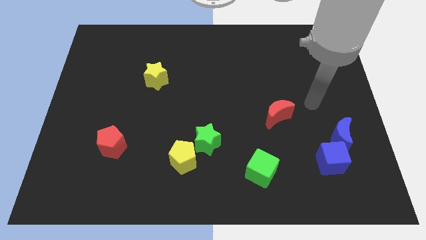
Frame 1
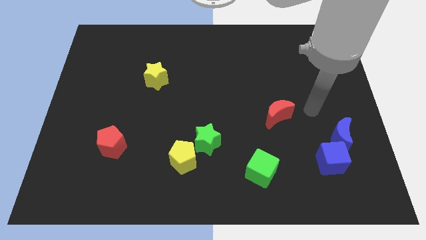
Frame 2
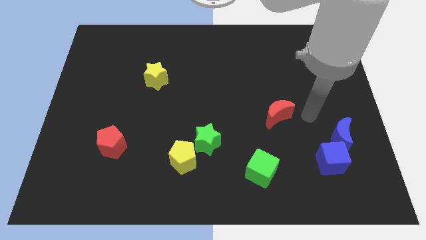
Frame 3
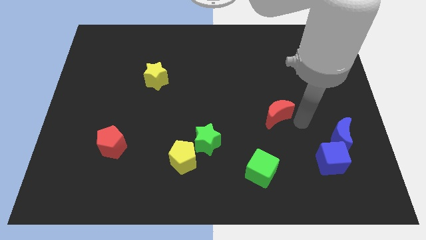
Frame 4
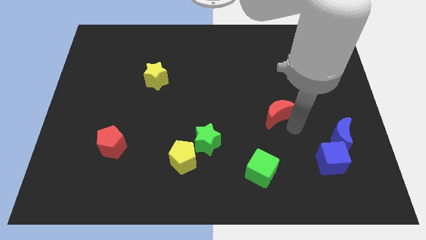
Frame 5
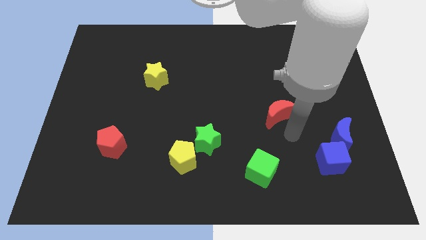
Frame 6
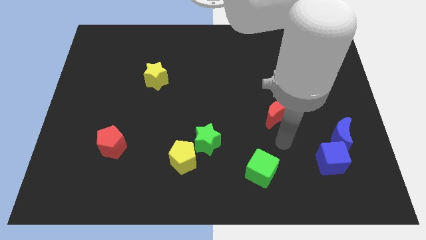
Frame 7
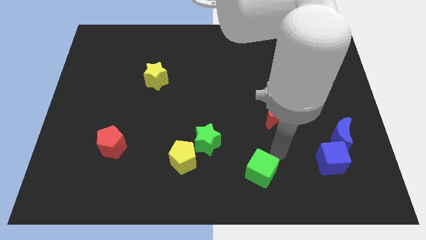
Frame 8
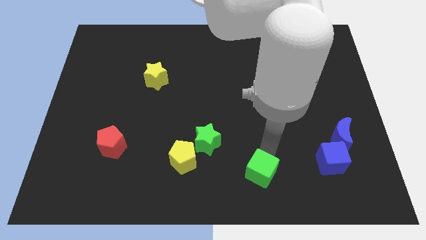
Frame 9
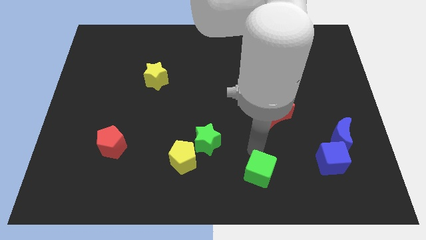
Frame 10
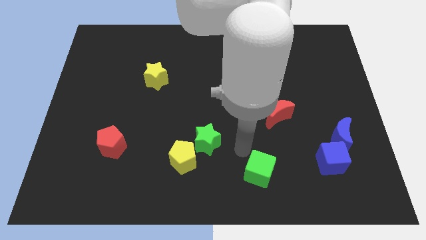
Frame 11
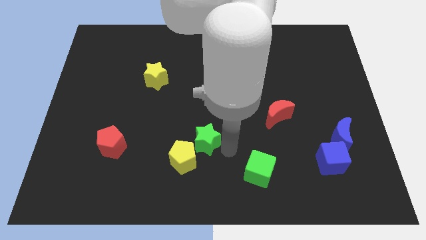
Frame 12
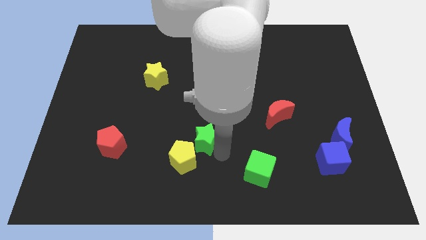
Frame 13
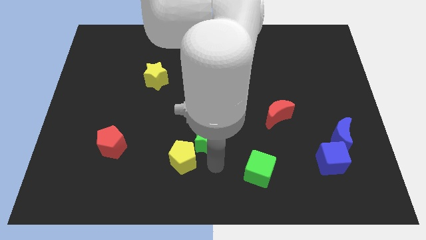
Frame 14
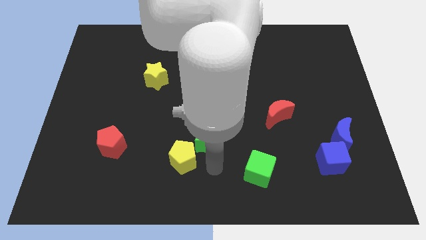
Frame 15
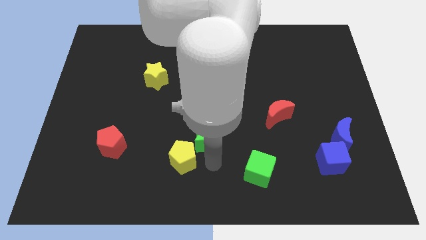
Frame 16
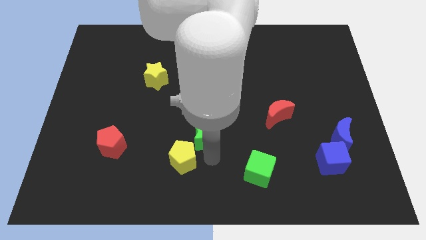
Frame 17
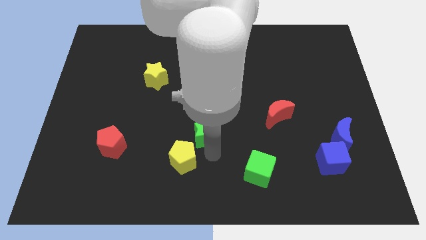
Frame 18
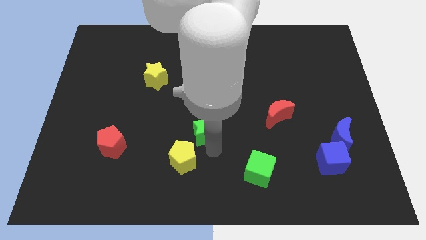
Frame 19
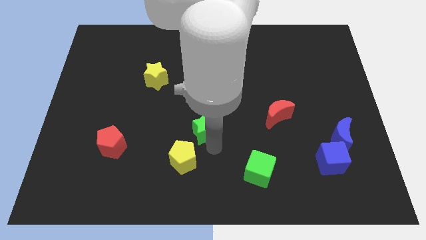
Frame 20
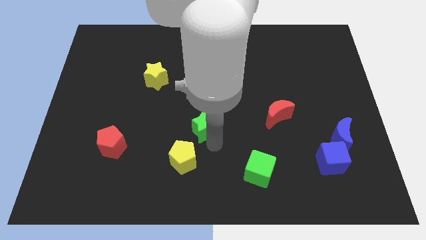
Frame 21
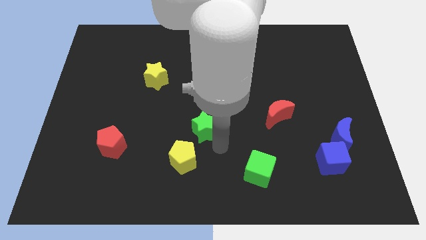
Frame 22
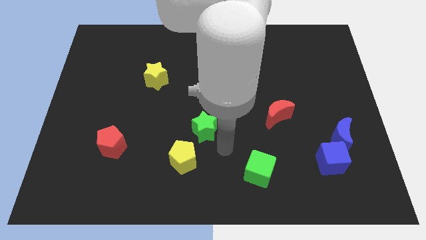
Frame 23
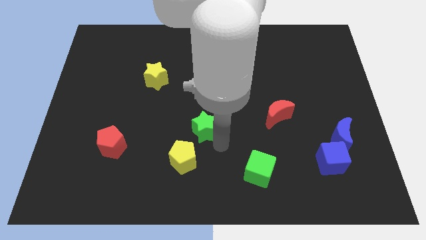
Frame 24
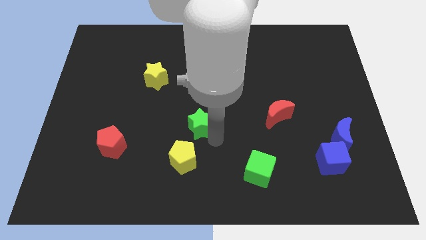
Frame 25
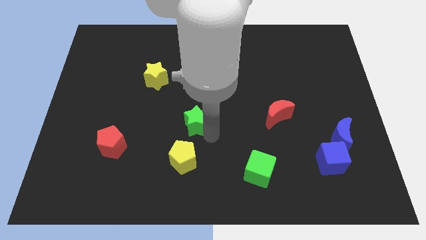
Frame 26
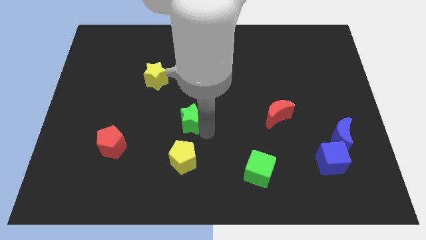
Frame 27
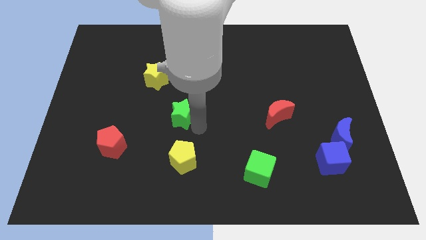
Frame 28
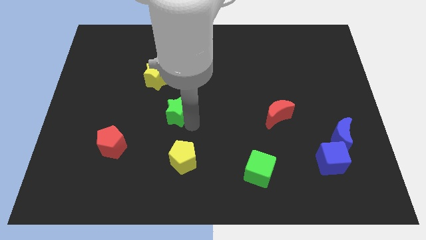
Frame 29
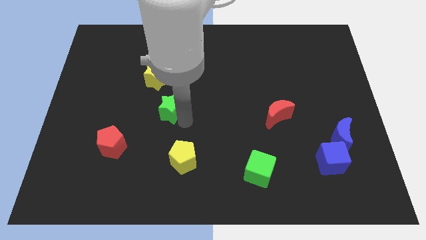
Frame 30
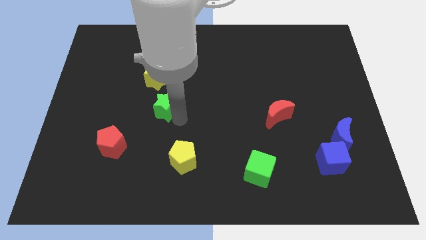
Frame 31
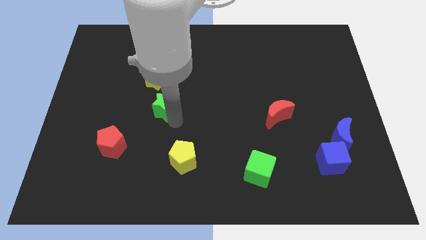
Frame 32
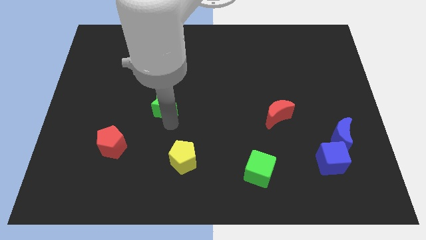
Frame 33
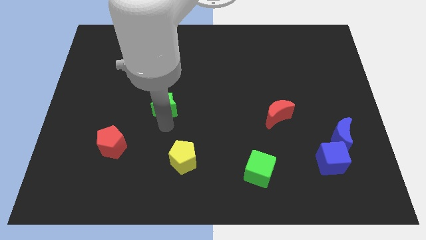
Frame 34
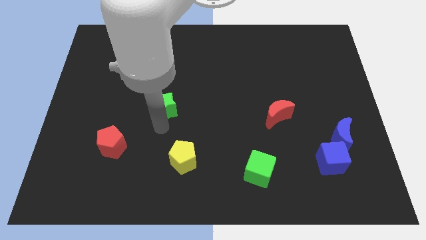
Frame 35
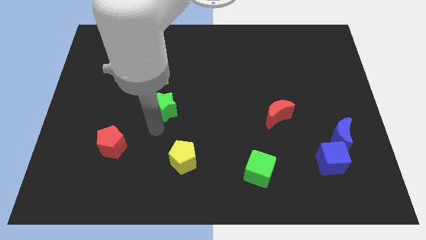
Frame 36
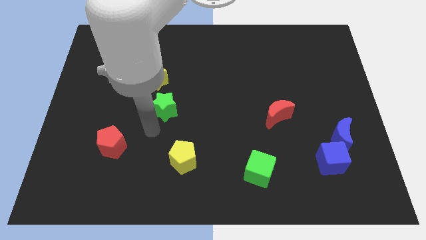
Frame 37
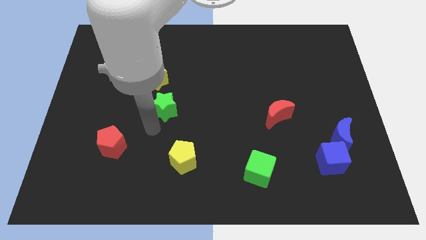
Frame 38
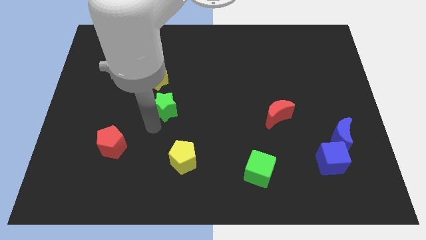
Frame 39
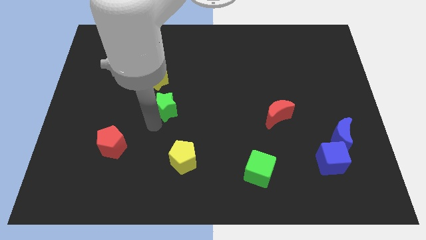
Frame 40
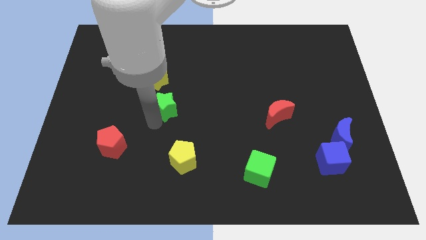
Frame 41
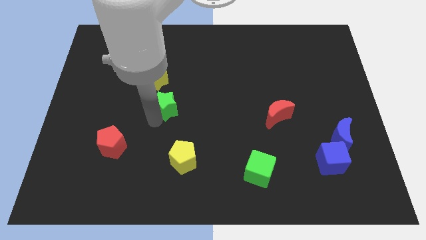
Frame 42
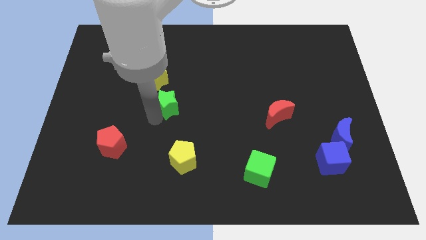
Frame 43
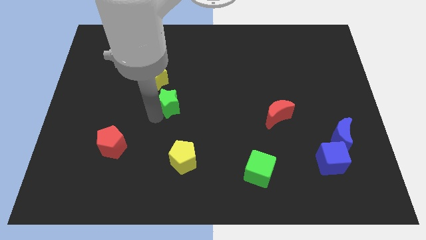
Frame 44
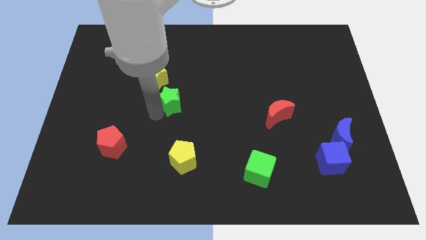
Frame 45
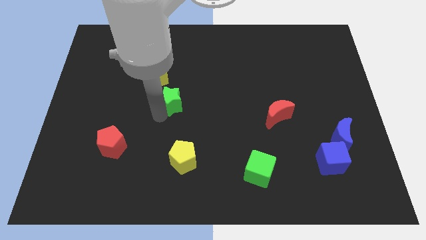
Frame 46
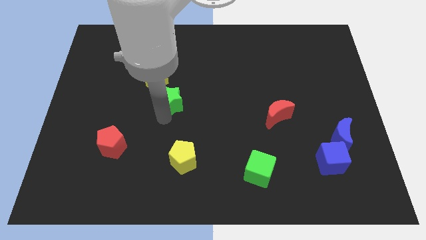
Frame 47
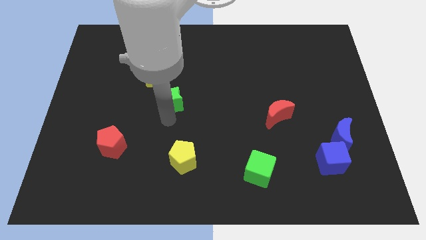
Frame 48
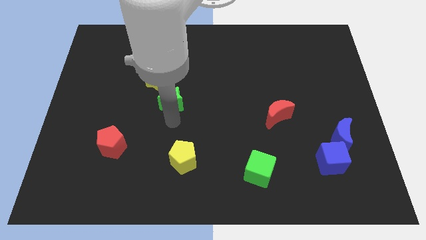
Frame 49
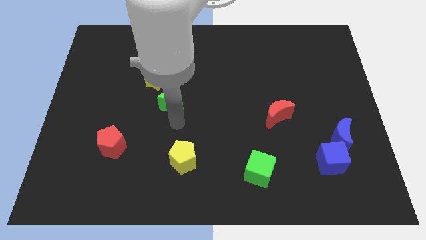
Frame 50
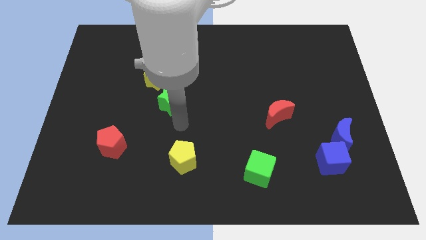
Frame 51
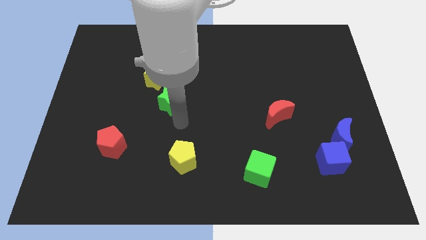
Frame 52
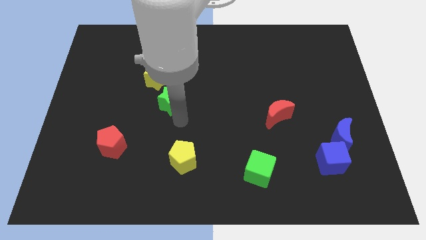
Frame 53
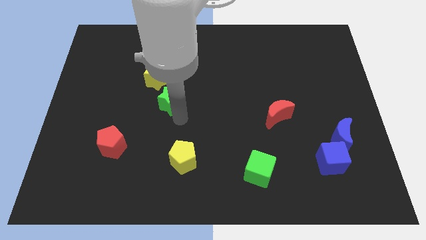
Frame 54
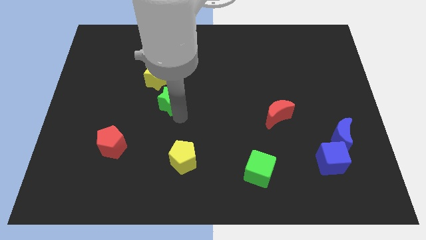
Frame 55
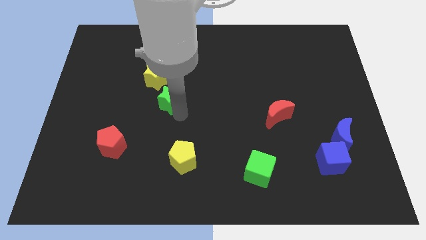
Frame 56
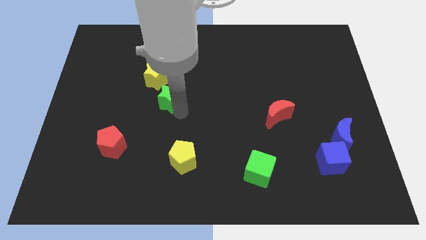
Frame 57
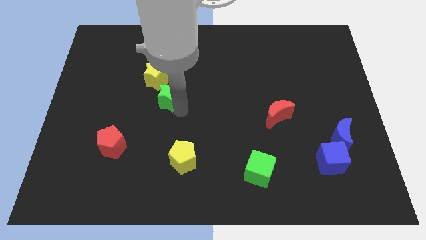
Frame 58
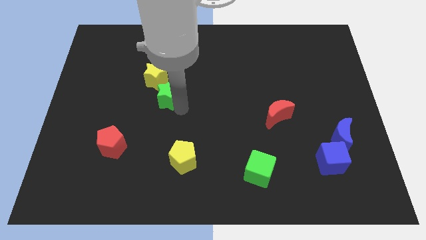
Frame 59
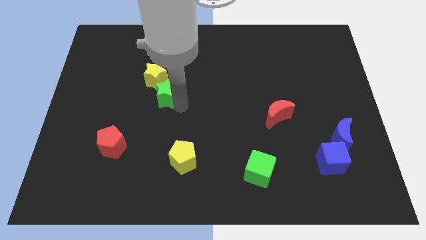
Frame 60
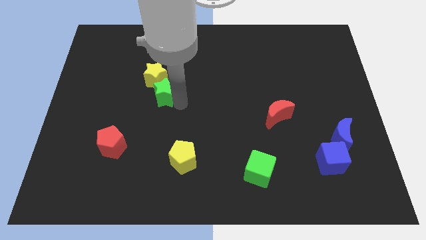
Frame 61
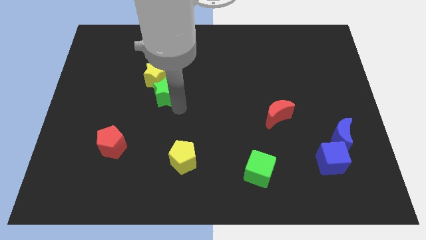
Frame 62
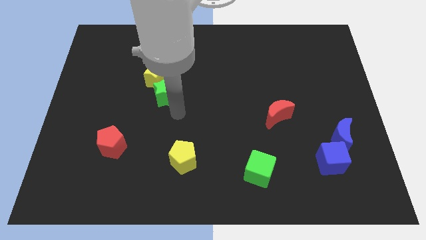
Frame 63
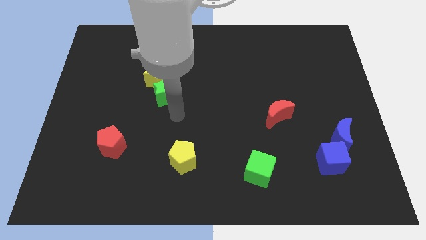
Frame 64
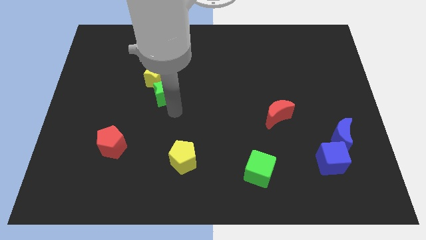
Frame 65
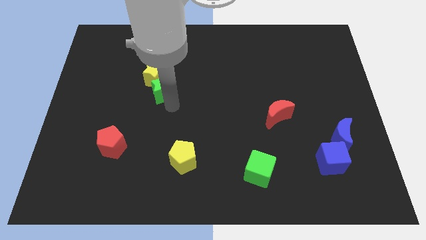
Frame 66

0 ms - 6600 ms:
put the green star to the yellow star

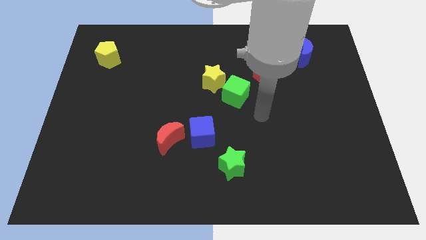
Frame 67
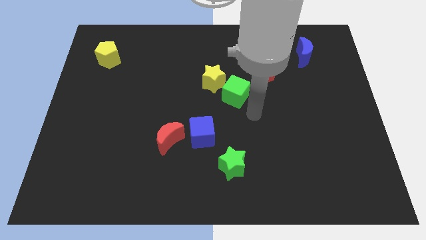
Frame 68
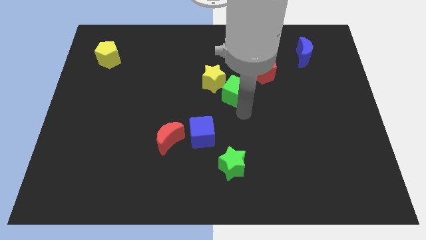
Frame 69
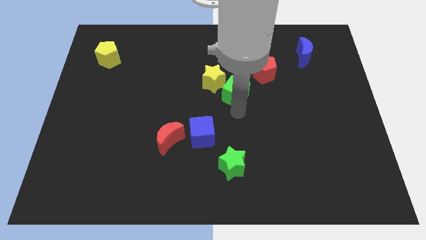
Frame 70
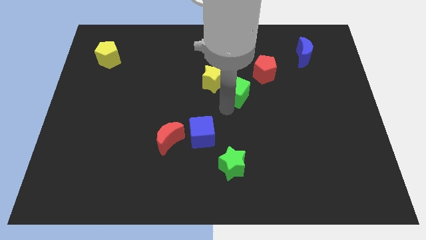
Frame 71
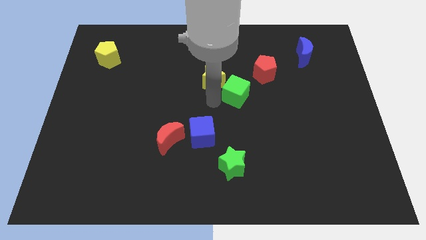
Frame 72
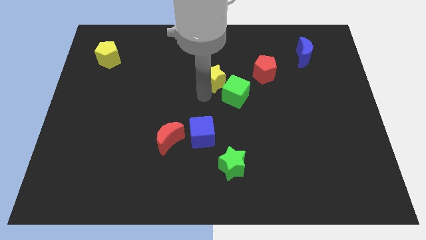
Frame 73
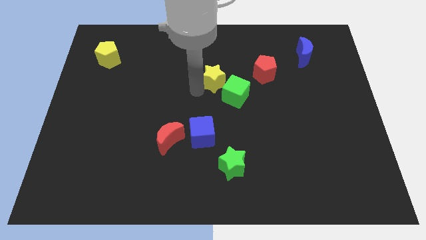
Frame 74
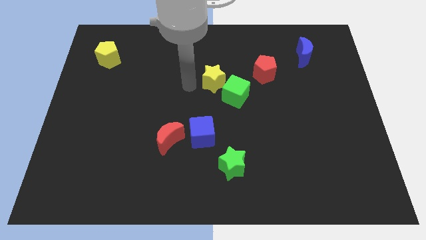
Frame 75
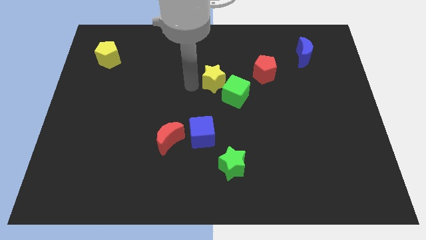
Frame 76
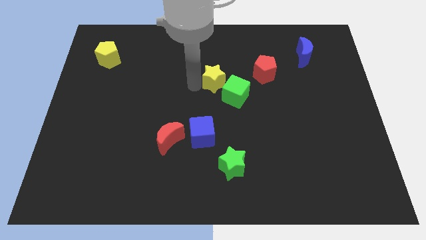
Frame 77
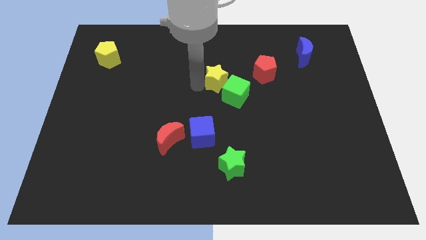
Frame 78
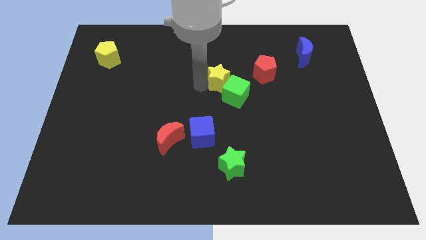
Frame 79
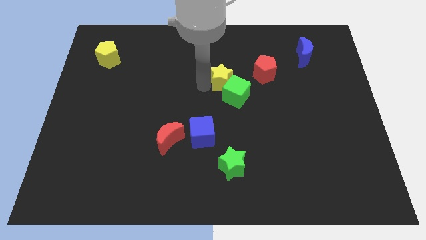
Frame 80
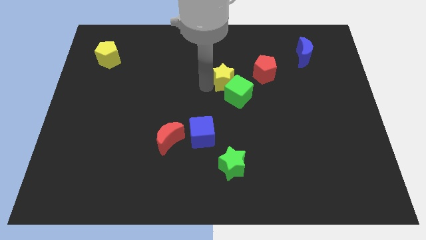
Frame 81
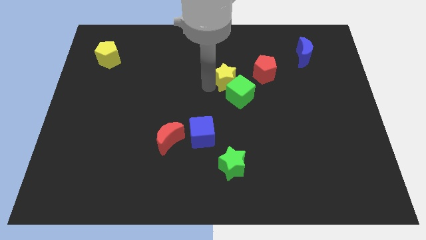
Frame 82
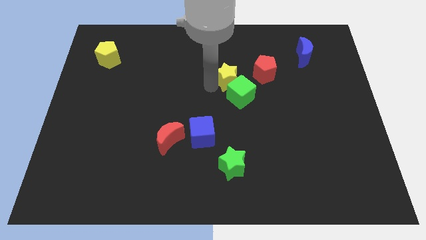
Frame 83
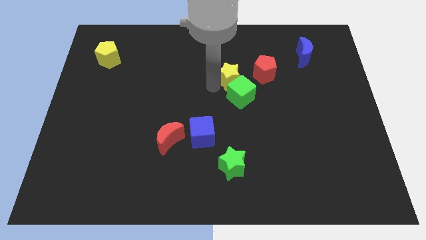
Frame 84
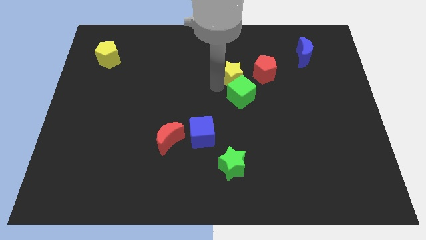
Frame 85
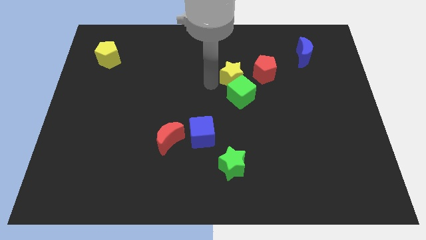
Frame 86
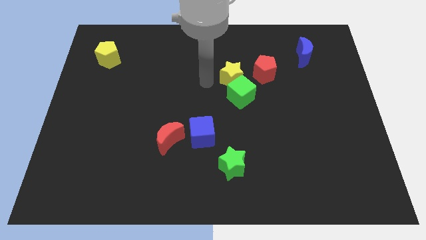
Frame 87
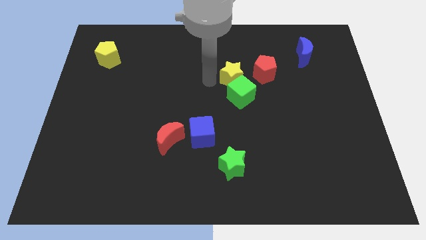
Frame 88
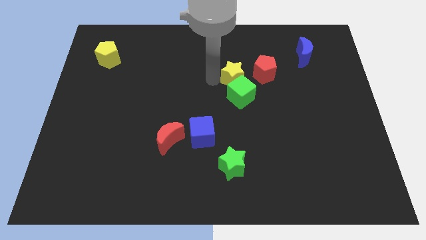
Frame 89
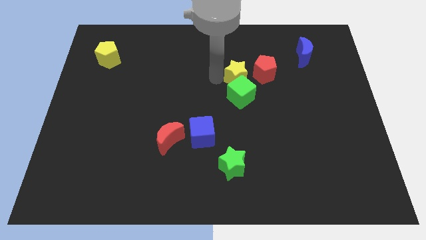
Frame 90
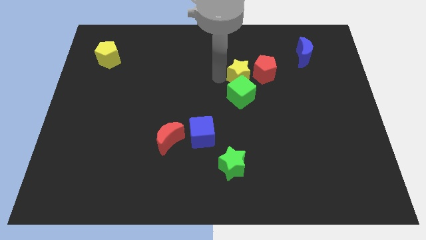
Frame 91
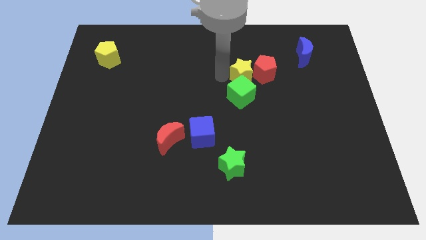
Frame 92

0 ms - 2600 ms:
push the yellow star towards the red pentagon
